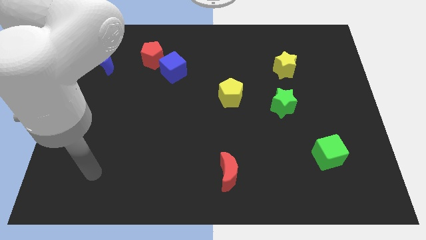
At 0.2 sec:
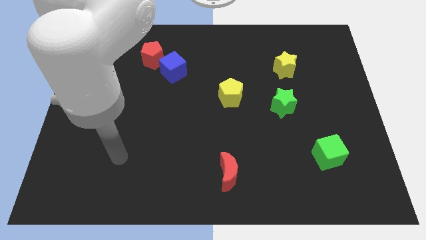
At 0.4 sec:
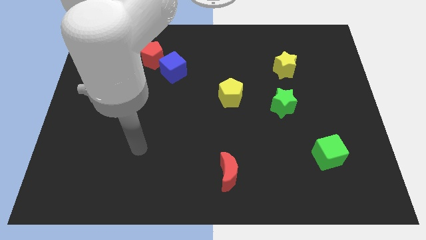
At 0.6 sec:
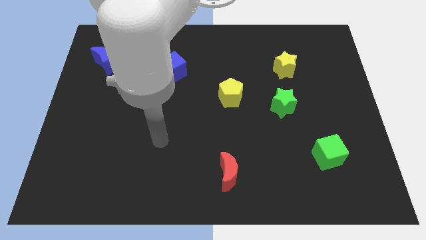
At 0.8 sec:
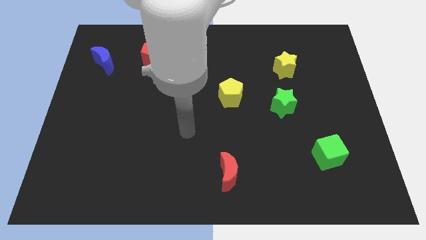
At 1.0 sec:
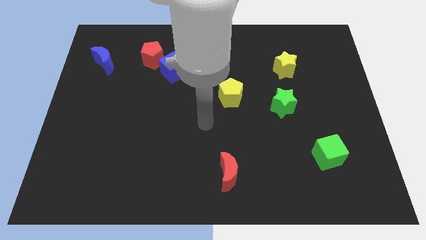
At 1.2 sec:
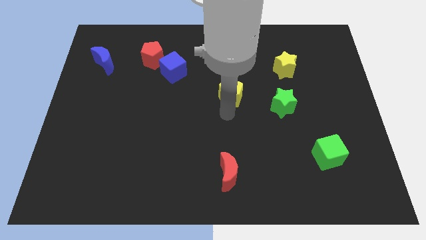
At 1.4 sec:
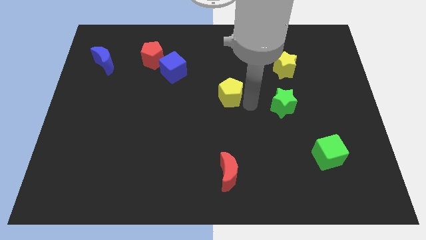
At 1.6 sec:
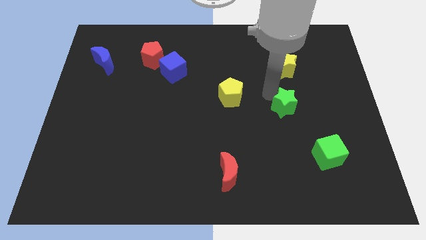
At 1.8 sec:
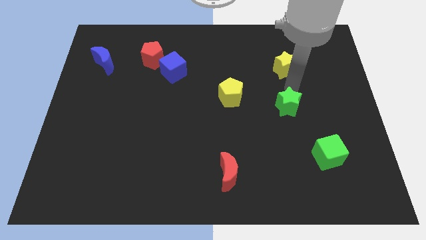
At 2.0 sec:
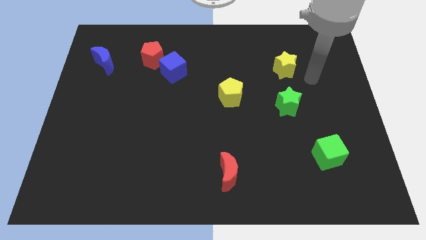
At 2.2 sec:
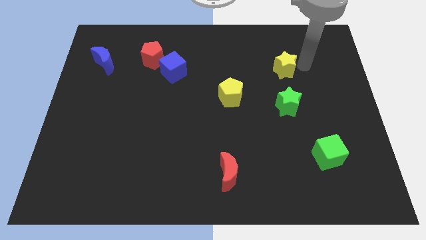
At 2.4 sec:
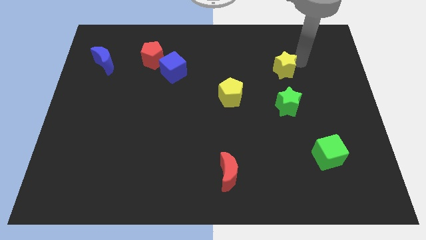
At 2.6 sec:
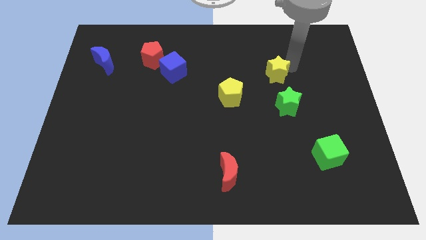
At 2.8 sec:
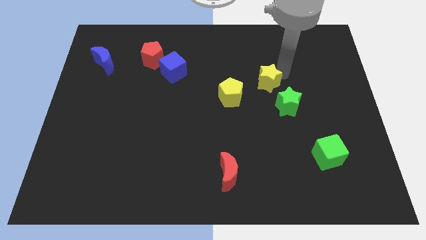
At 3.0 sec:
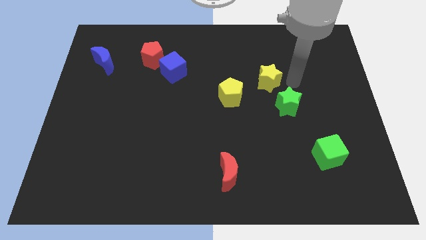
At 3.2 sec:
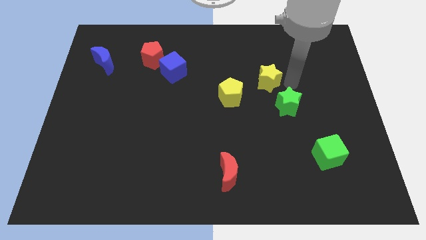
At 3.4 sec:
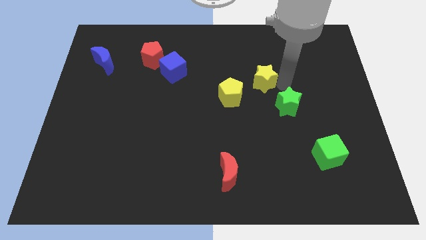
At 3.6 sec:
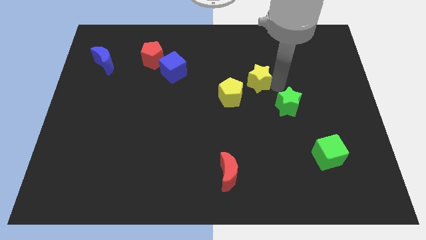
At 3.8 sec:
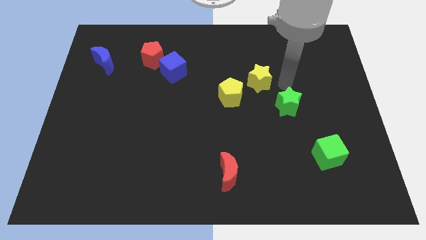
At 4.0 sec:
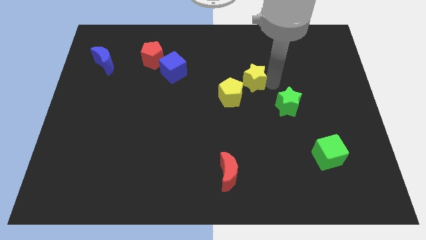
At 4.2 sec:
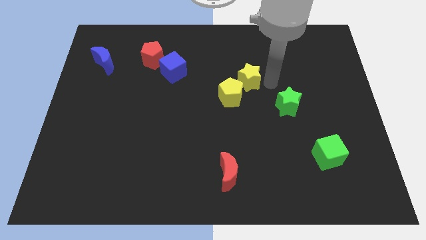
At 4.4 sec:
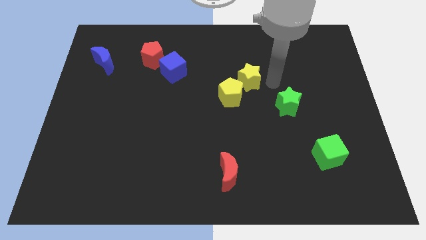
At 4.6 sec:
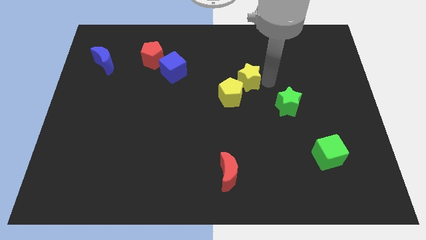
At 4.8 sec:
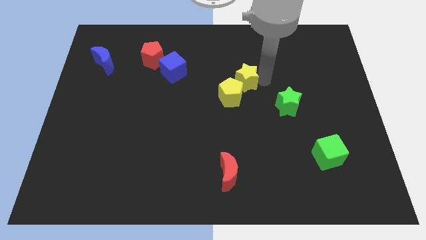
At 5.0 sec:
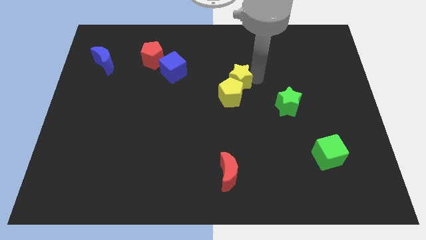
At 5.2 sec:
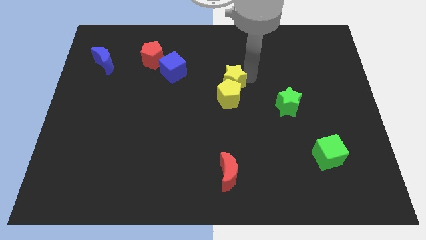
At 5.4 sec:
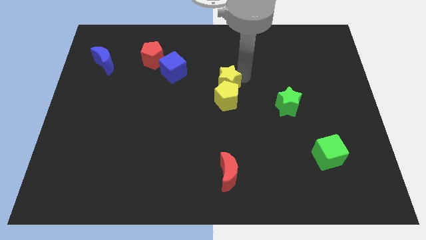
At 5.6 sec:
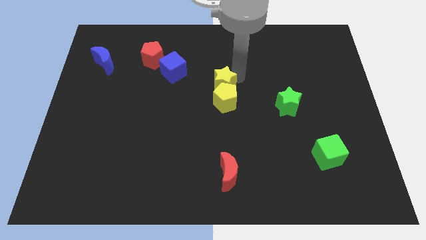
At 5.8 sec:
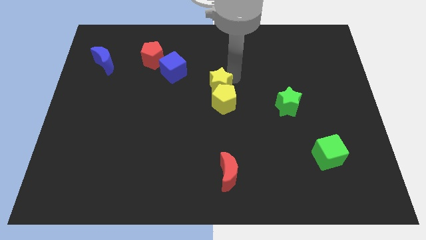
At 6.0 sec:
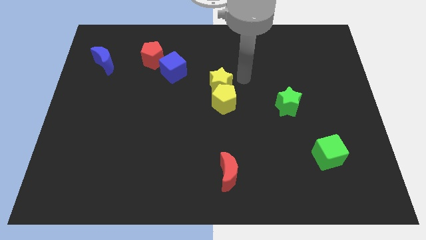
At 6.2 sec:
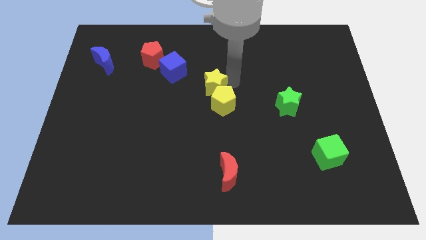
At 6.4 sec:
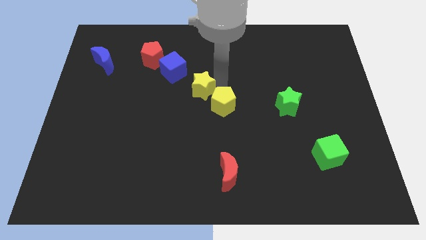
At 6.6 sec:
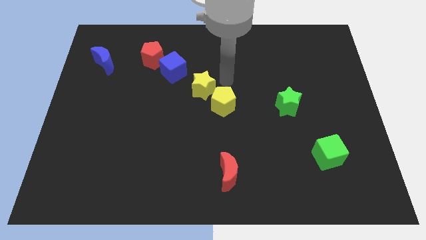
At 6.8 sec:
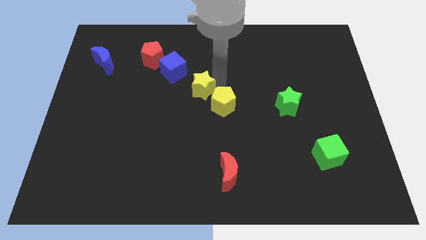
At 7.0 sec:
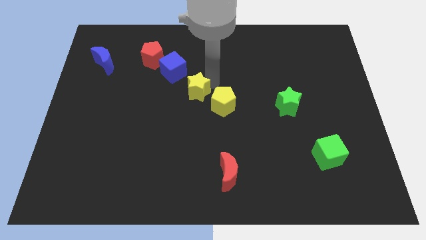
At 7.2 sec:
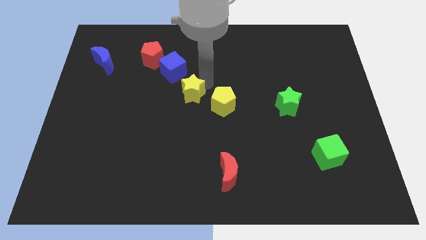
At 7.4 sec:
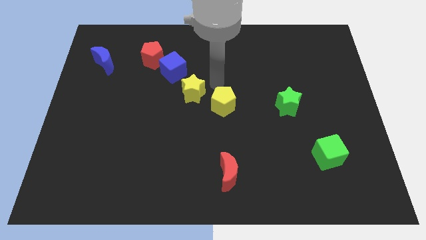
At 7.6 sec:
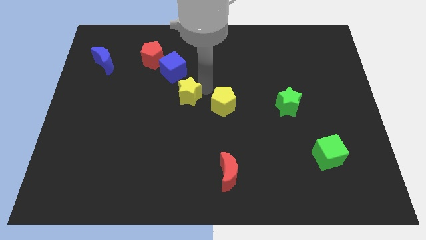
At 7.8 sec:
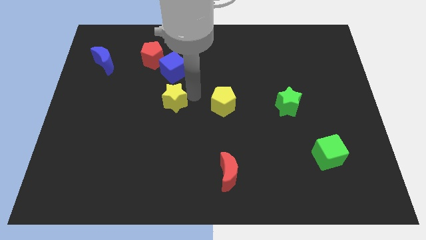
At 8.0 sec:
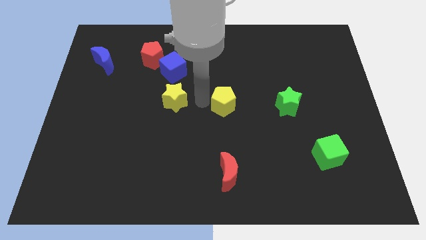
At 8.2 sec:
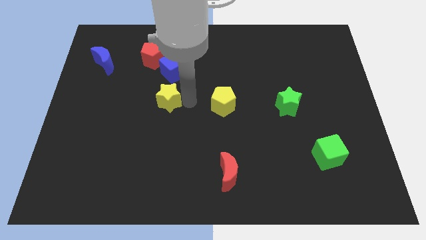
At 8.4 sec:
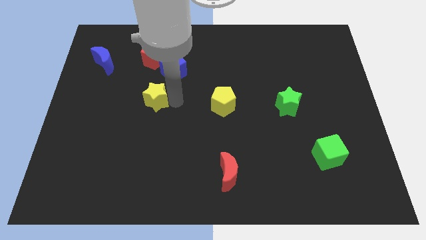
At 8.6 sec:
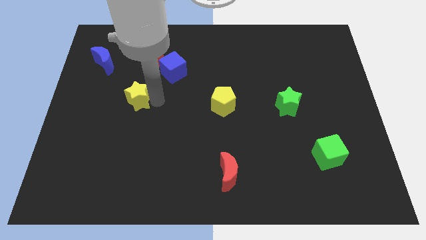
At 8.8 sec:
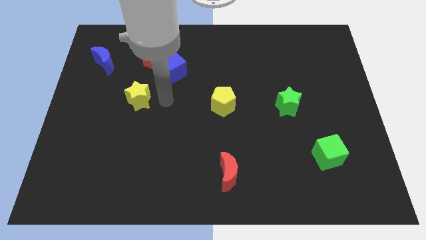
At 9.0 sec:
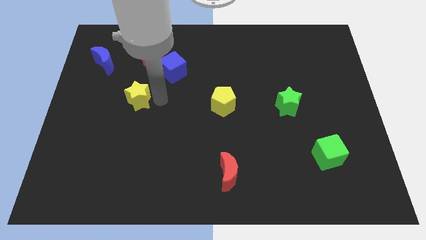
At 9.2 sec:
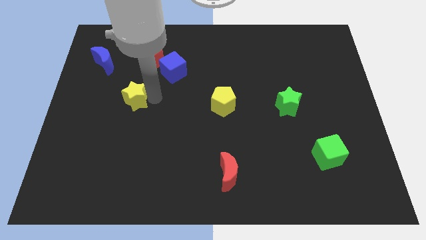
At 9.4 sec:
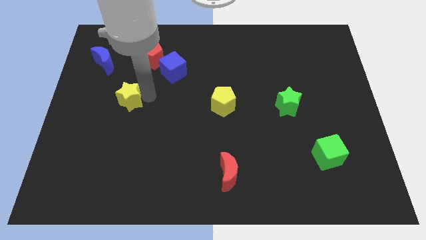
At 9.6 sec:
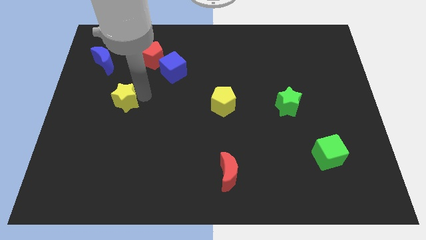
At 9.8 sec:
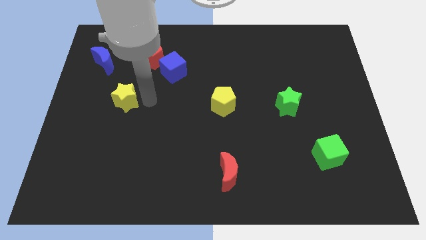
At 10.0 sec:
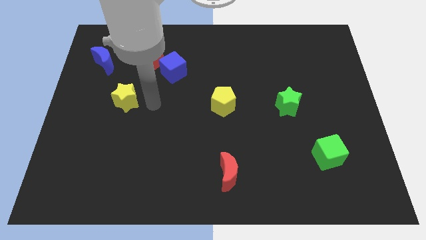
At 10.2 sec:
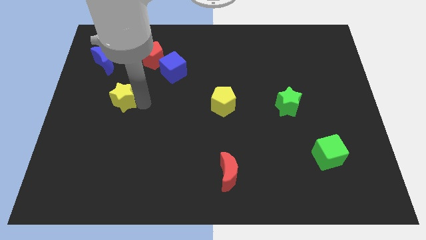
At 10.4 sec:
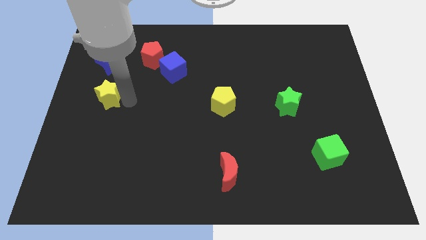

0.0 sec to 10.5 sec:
put the yellow star to the center left

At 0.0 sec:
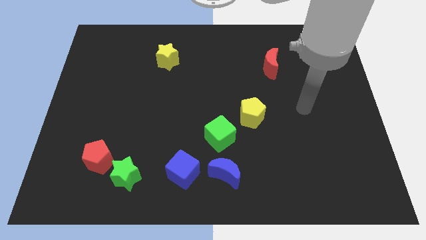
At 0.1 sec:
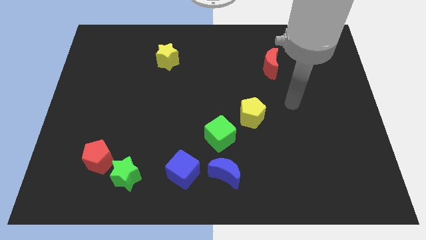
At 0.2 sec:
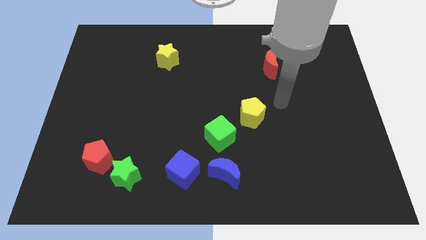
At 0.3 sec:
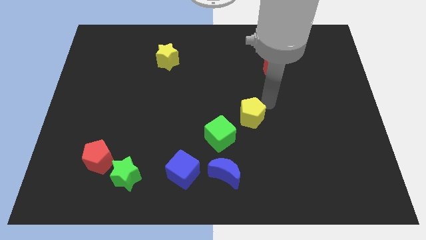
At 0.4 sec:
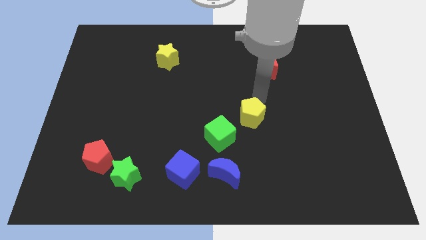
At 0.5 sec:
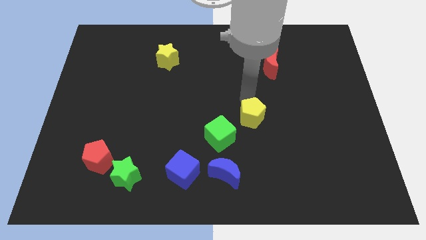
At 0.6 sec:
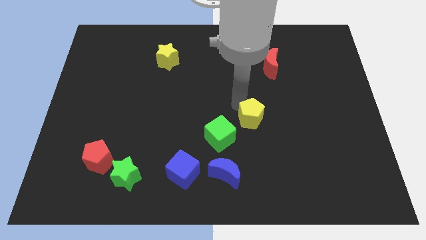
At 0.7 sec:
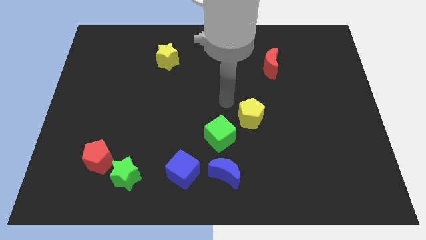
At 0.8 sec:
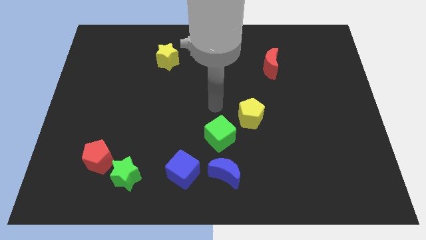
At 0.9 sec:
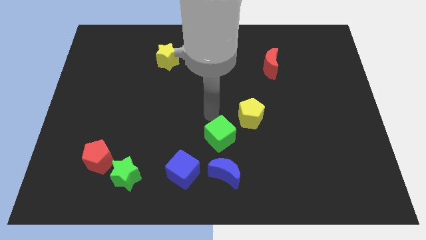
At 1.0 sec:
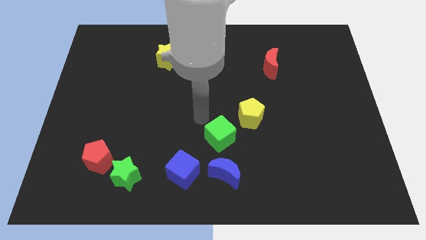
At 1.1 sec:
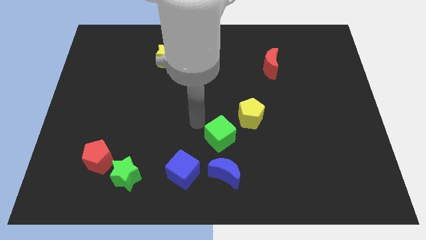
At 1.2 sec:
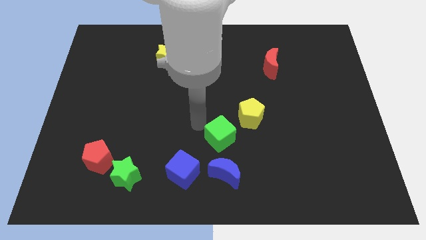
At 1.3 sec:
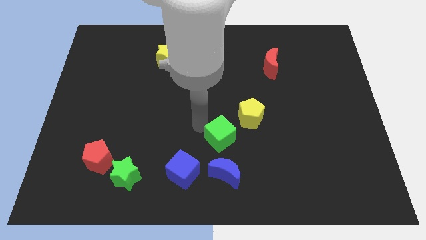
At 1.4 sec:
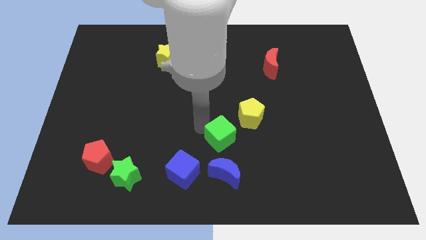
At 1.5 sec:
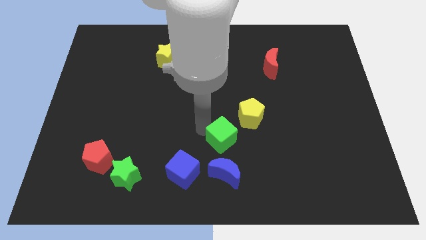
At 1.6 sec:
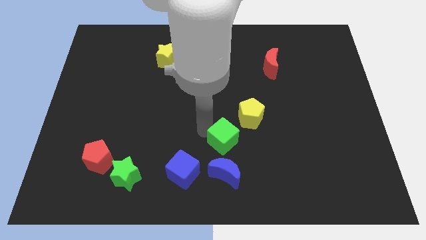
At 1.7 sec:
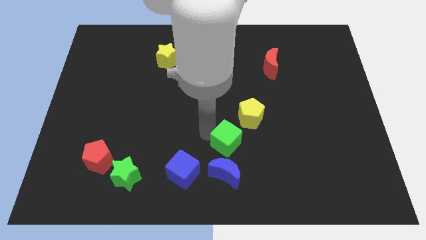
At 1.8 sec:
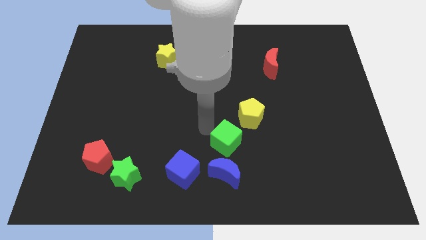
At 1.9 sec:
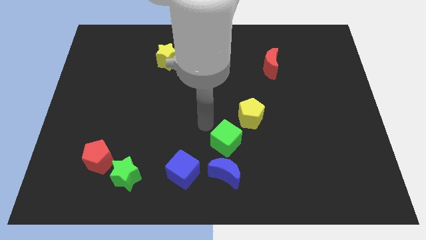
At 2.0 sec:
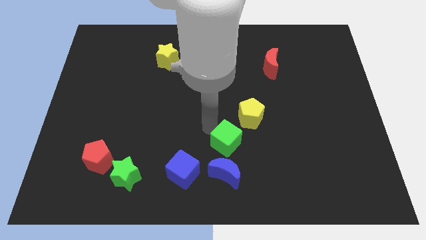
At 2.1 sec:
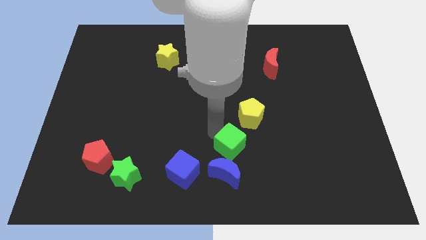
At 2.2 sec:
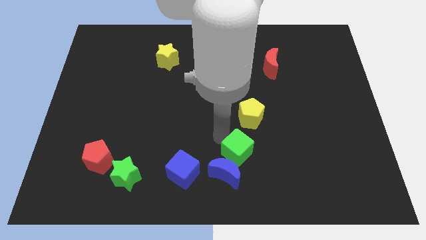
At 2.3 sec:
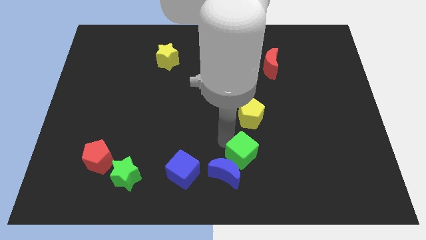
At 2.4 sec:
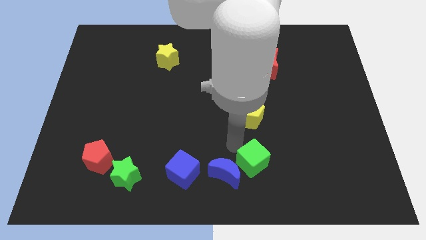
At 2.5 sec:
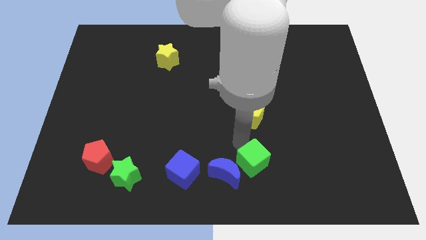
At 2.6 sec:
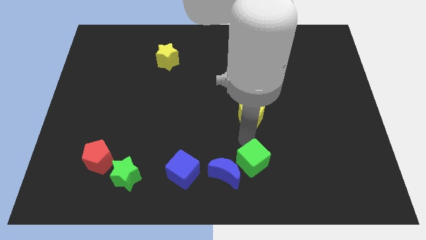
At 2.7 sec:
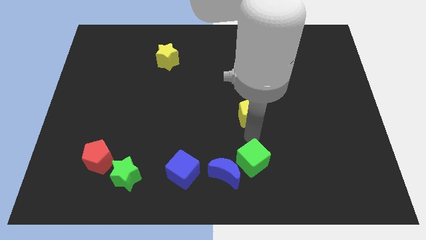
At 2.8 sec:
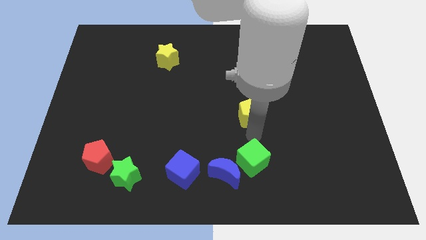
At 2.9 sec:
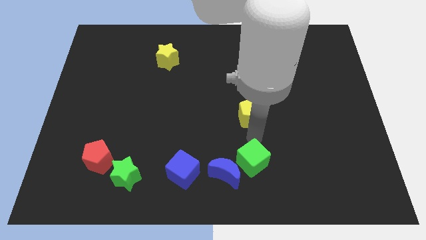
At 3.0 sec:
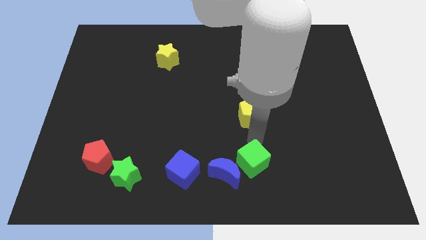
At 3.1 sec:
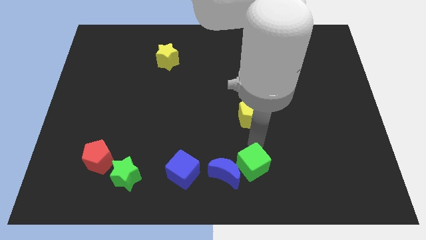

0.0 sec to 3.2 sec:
move the green cube to the bottom
